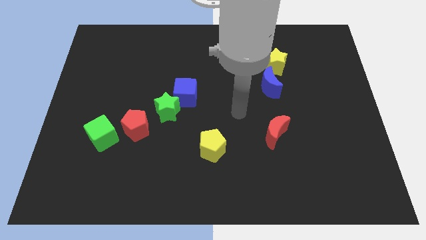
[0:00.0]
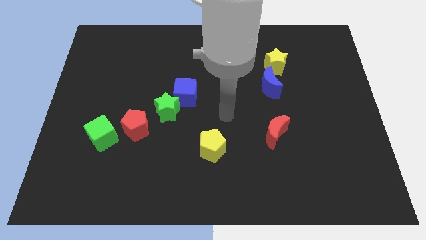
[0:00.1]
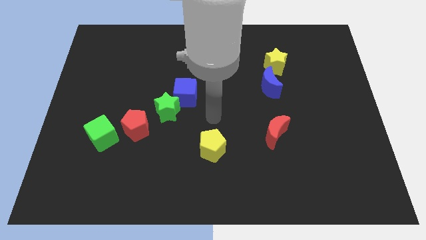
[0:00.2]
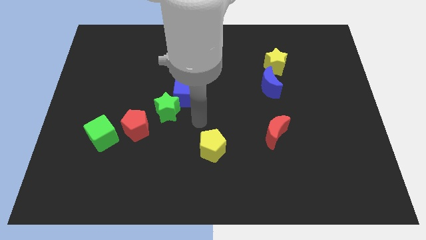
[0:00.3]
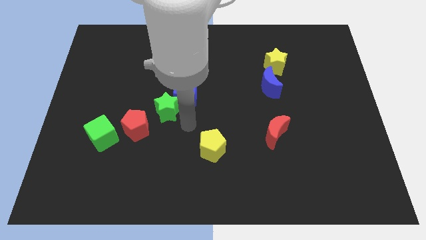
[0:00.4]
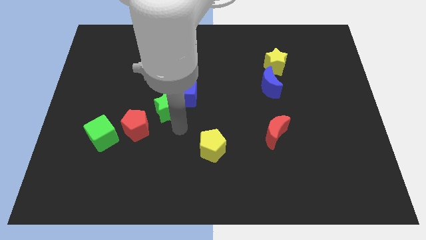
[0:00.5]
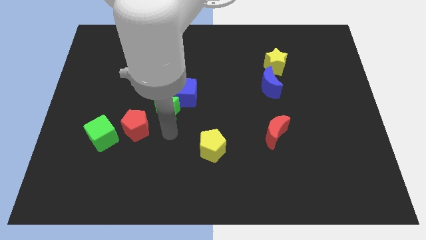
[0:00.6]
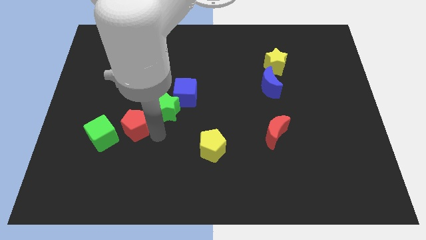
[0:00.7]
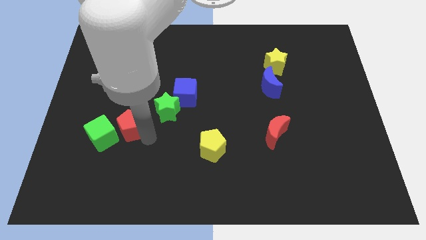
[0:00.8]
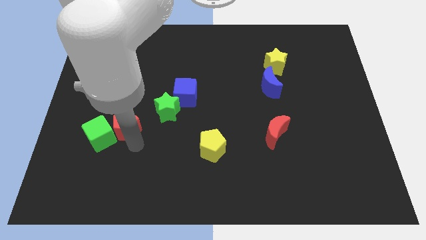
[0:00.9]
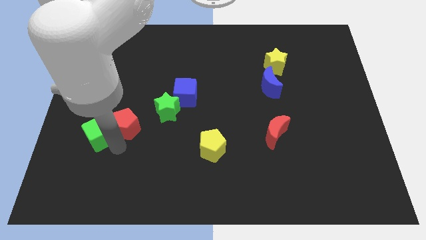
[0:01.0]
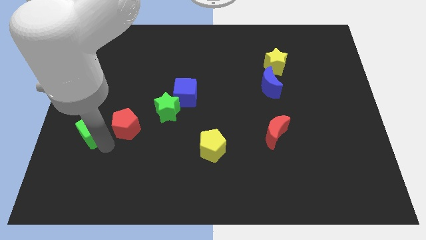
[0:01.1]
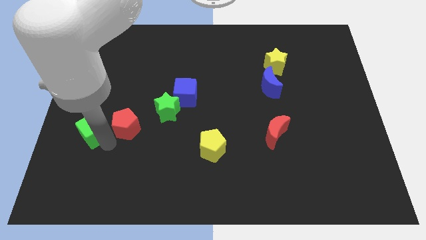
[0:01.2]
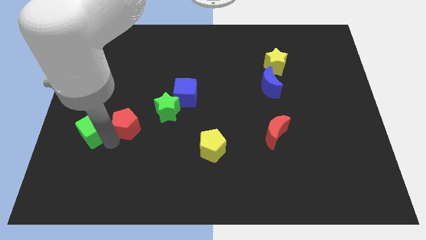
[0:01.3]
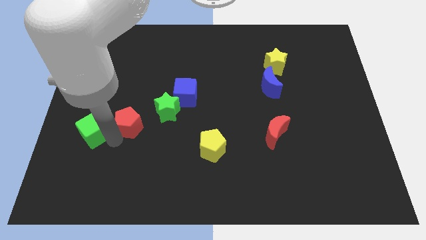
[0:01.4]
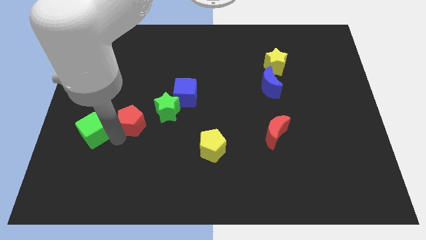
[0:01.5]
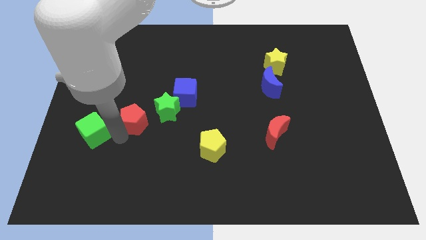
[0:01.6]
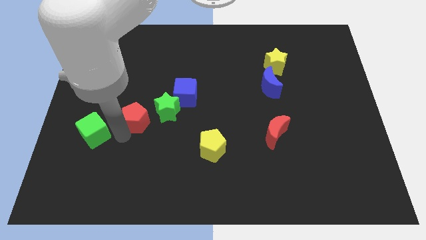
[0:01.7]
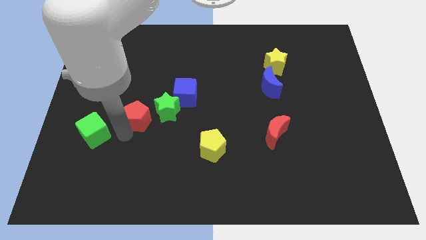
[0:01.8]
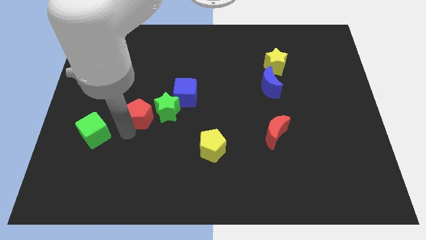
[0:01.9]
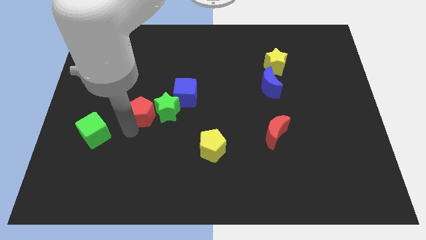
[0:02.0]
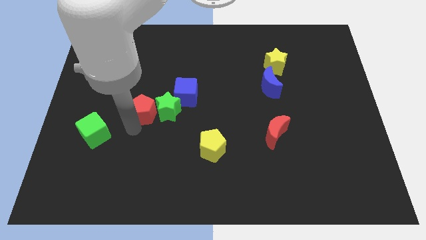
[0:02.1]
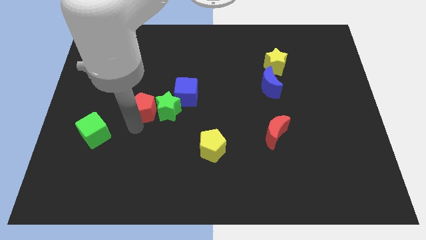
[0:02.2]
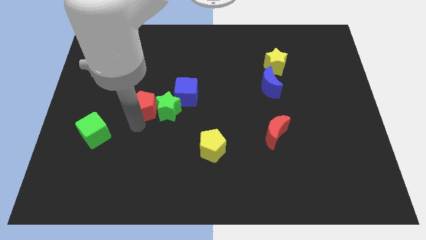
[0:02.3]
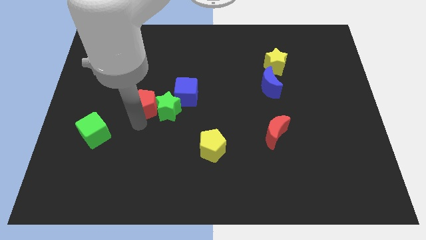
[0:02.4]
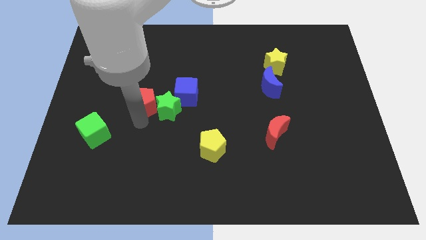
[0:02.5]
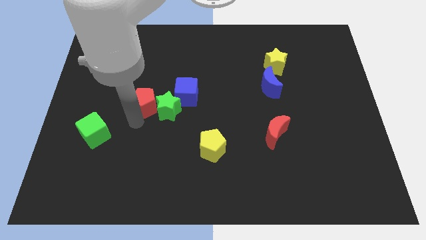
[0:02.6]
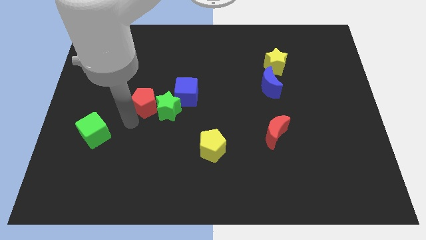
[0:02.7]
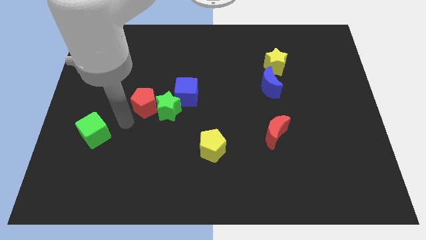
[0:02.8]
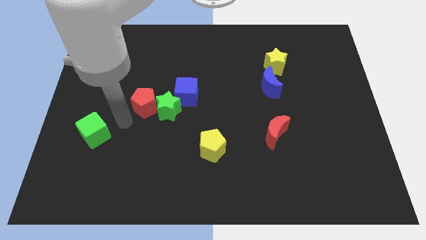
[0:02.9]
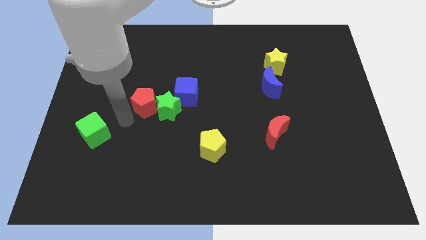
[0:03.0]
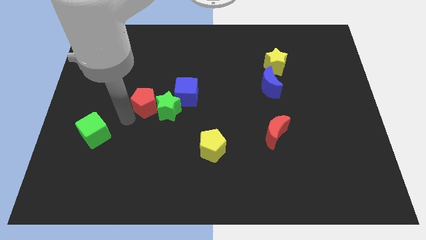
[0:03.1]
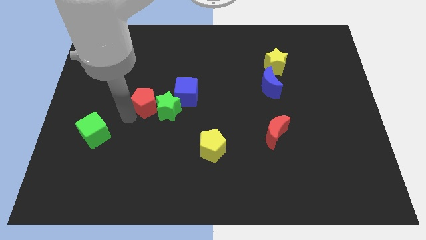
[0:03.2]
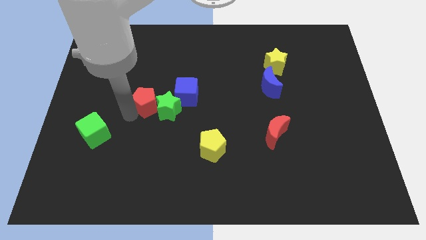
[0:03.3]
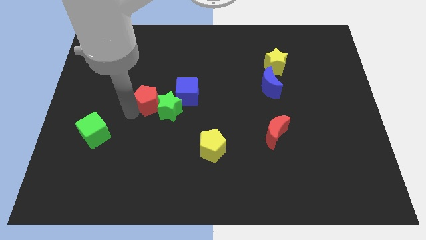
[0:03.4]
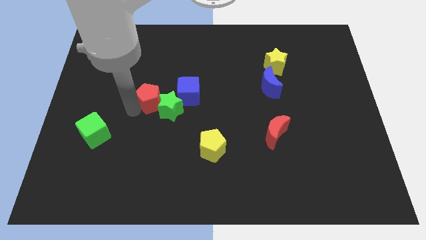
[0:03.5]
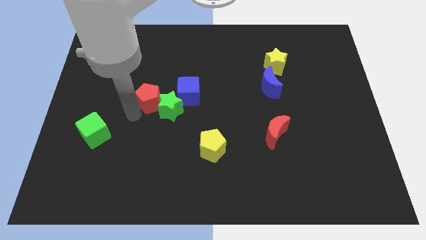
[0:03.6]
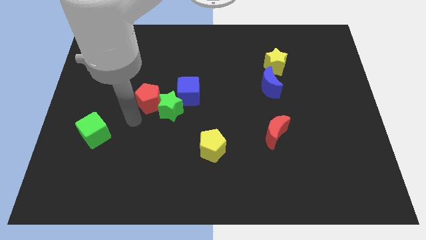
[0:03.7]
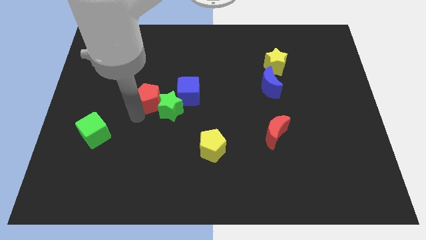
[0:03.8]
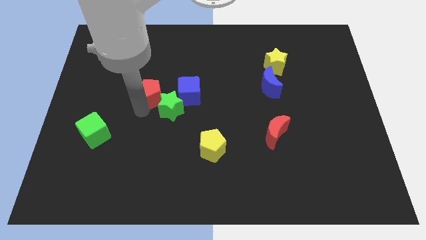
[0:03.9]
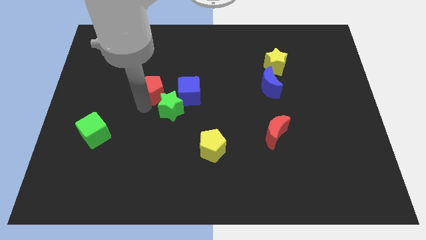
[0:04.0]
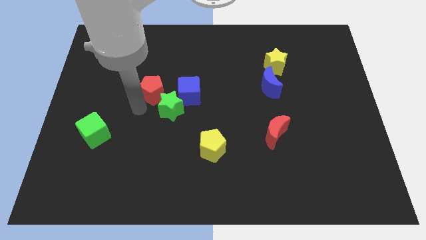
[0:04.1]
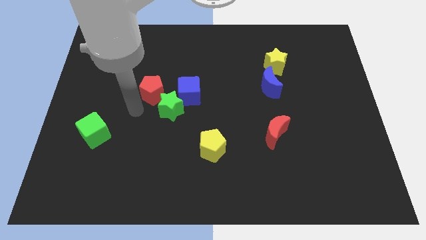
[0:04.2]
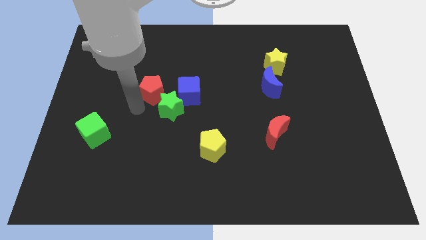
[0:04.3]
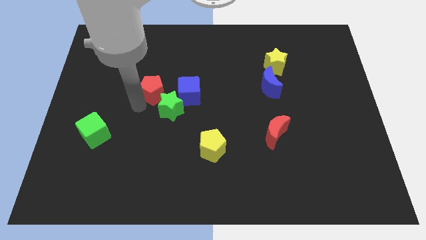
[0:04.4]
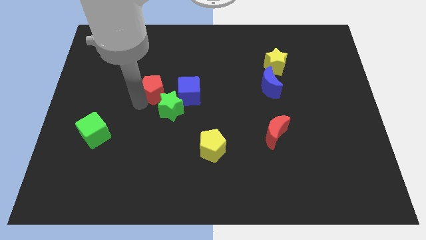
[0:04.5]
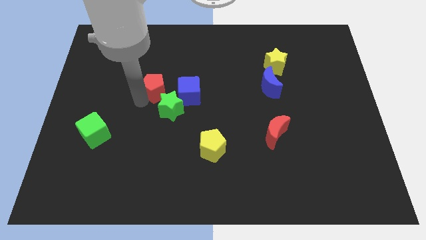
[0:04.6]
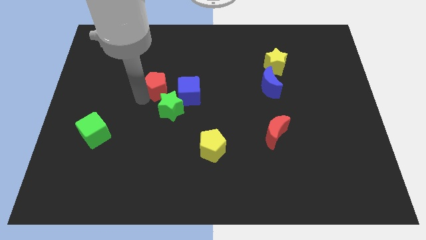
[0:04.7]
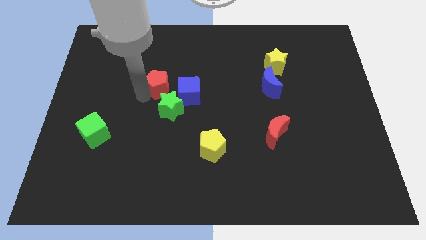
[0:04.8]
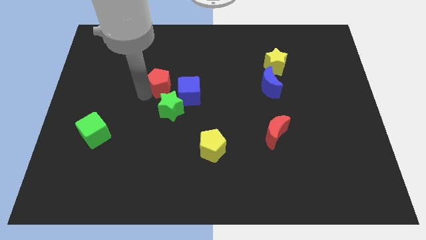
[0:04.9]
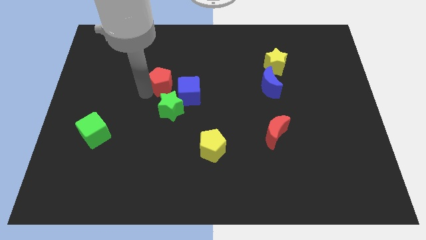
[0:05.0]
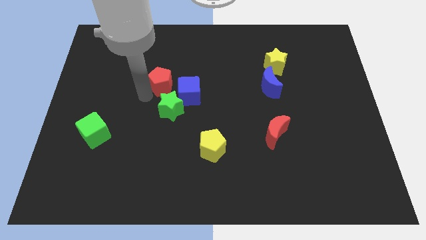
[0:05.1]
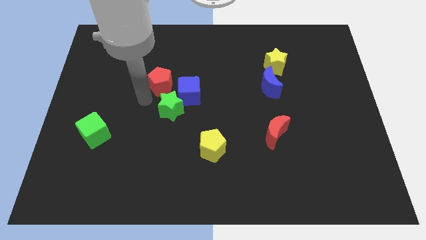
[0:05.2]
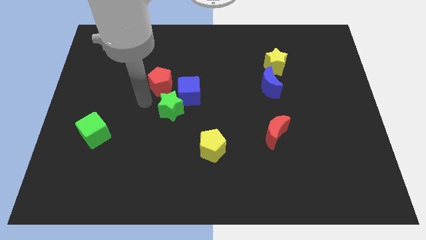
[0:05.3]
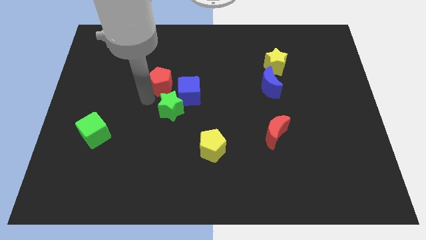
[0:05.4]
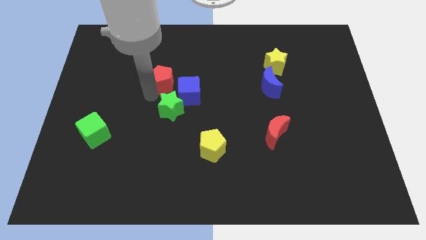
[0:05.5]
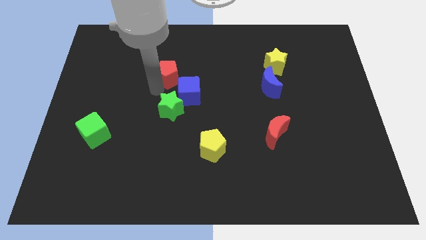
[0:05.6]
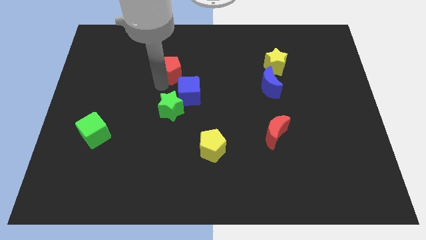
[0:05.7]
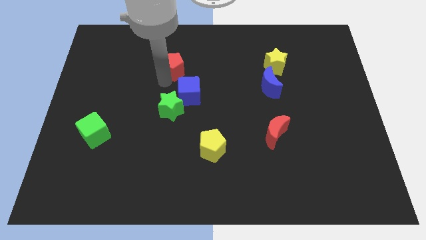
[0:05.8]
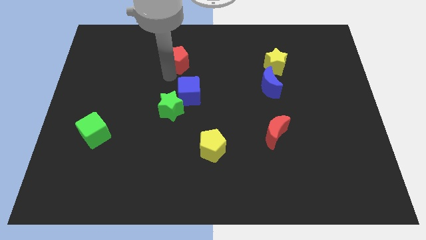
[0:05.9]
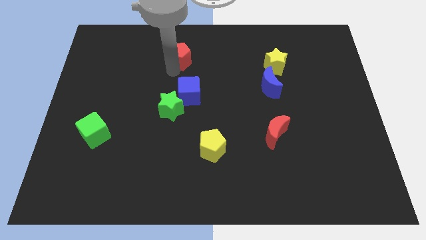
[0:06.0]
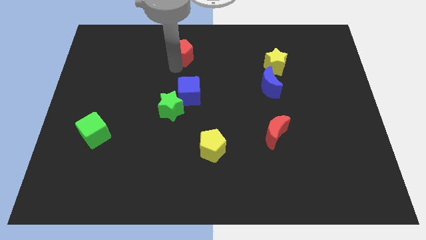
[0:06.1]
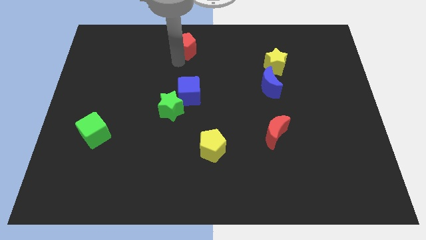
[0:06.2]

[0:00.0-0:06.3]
slide the red pentagon to the towards your base
